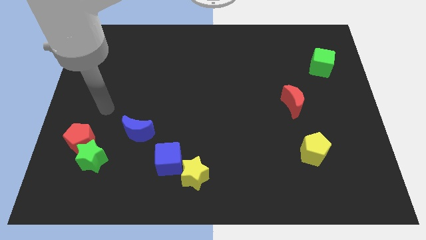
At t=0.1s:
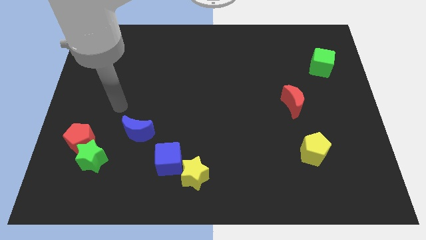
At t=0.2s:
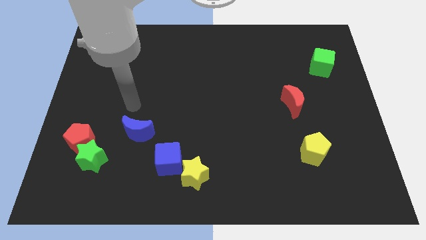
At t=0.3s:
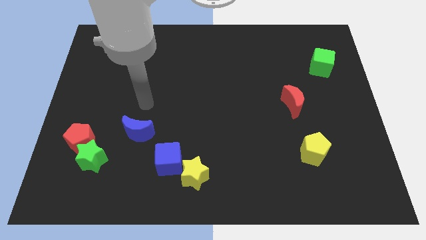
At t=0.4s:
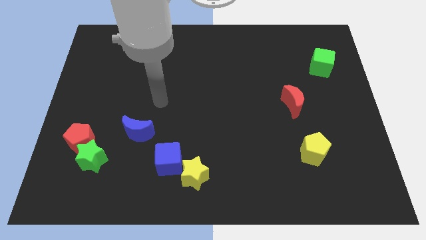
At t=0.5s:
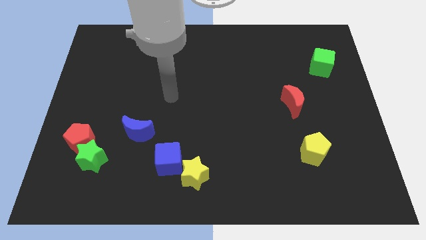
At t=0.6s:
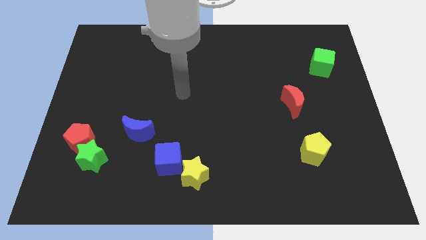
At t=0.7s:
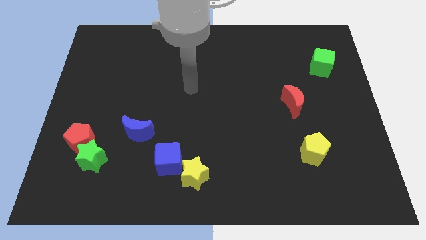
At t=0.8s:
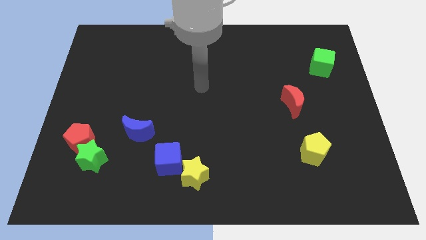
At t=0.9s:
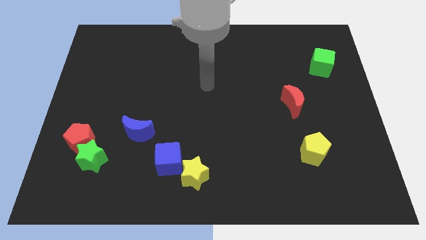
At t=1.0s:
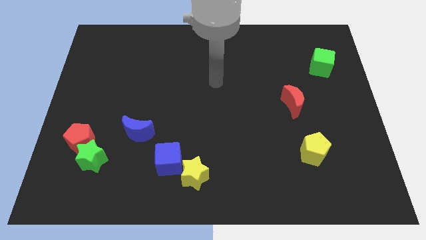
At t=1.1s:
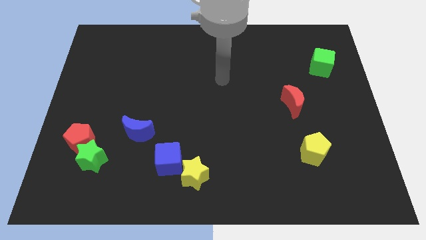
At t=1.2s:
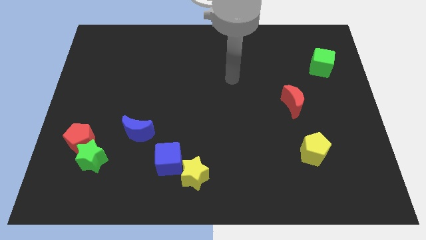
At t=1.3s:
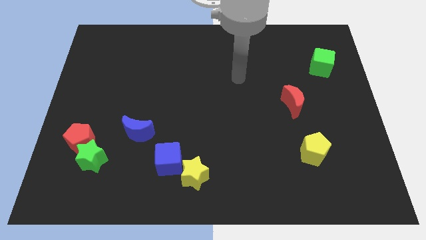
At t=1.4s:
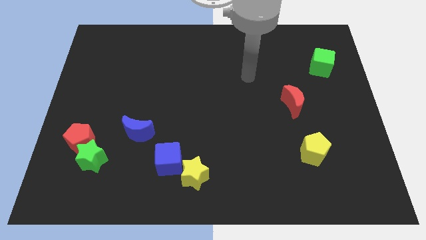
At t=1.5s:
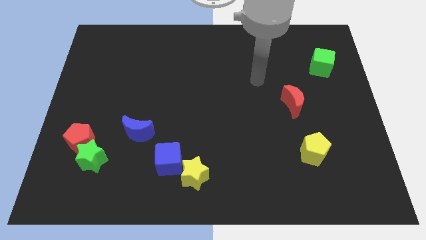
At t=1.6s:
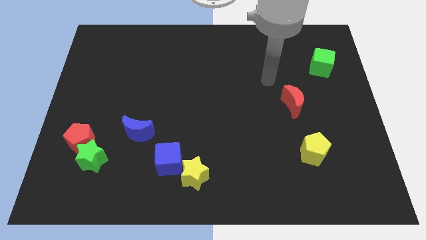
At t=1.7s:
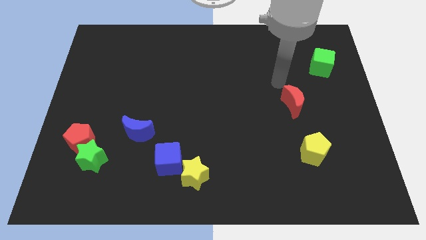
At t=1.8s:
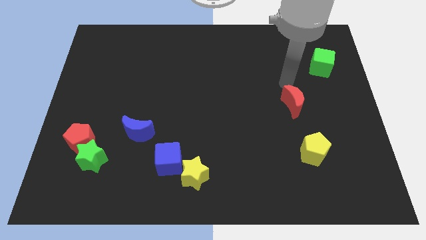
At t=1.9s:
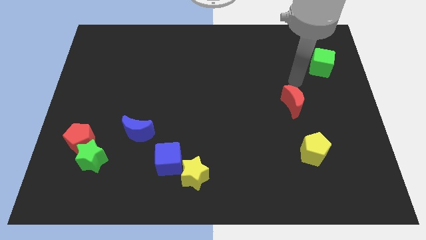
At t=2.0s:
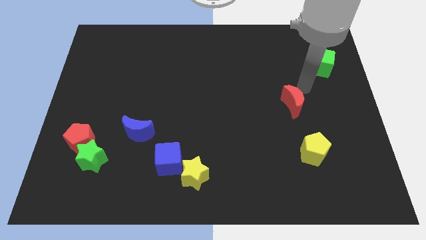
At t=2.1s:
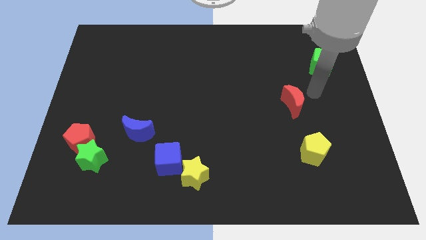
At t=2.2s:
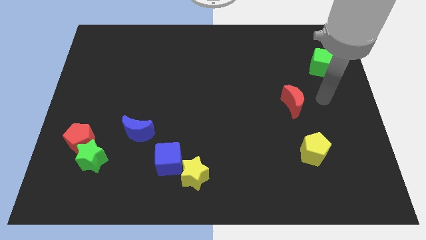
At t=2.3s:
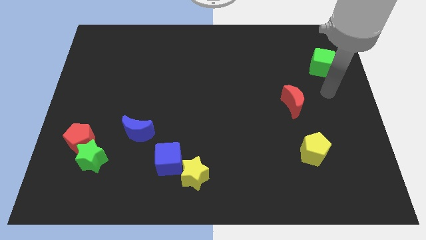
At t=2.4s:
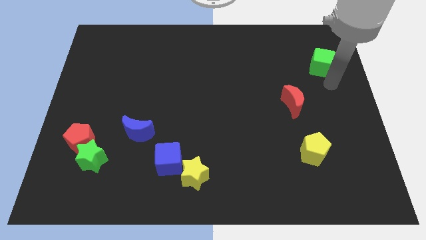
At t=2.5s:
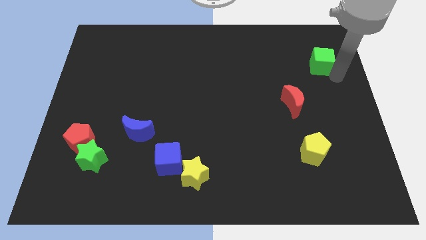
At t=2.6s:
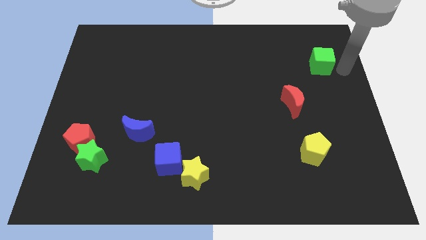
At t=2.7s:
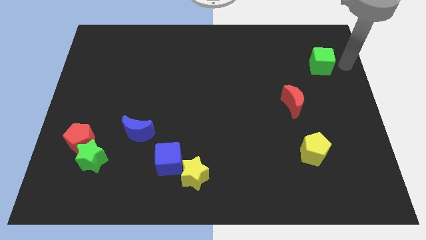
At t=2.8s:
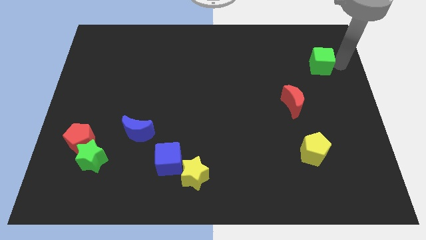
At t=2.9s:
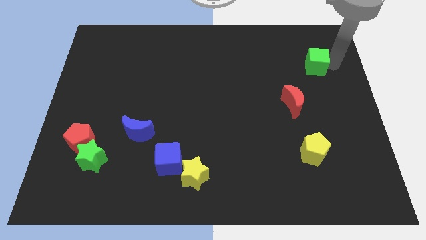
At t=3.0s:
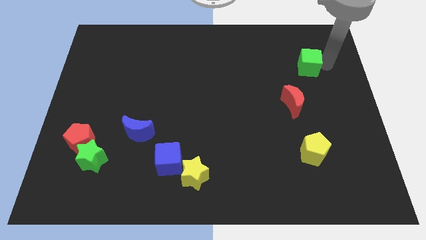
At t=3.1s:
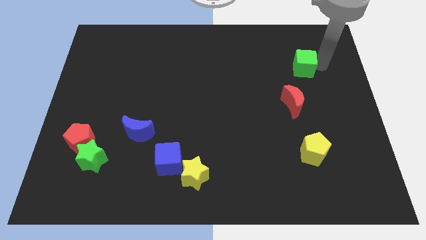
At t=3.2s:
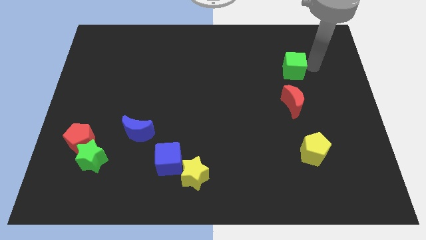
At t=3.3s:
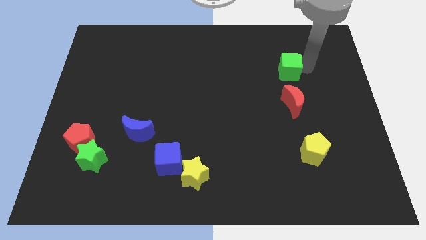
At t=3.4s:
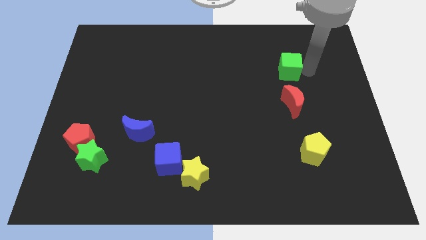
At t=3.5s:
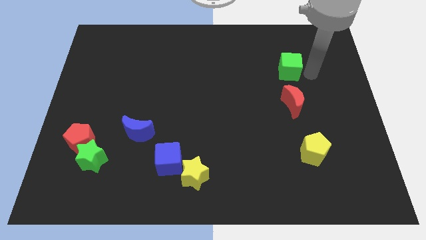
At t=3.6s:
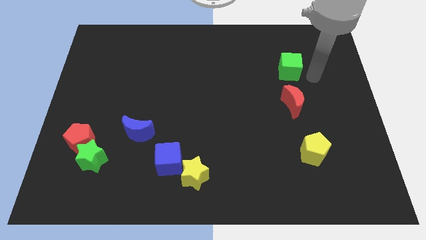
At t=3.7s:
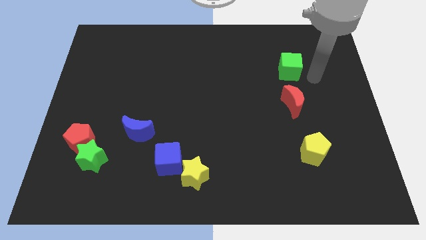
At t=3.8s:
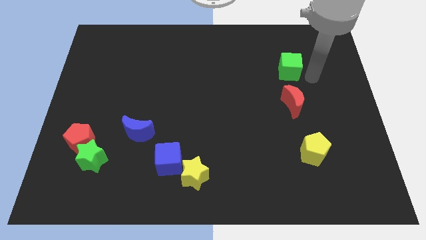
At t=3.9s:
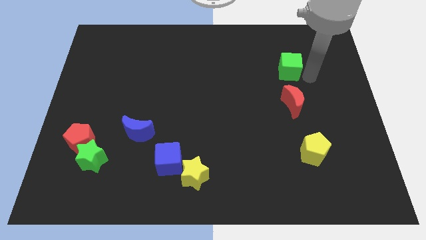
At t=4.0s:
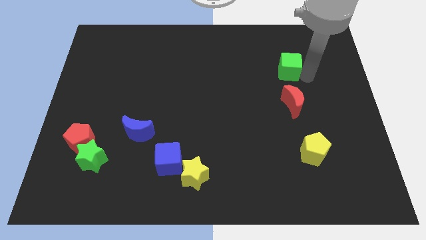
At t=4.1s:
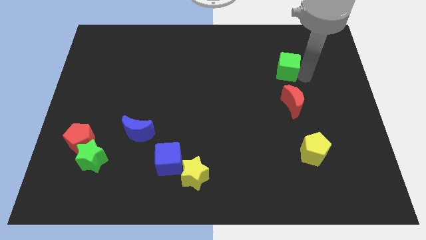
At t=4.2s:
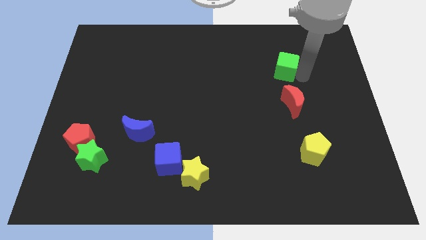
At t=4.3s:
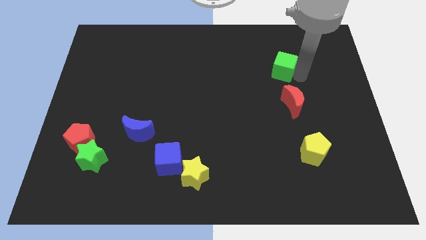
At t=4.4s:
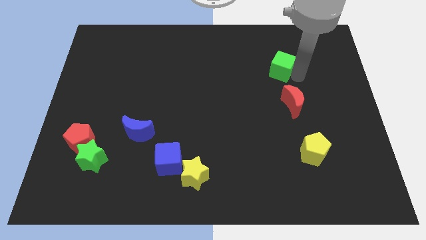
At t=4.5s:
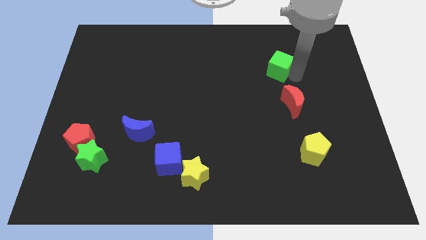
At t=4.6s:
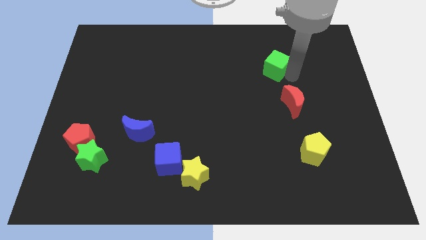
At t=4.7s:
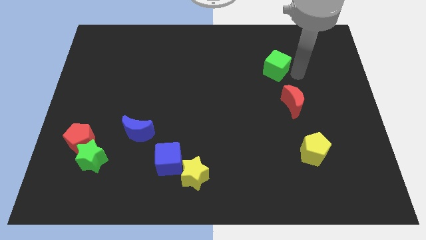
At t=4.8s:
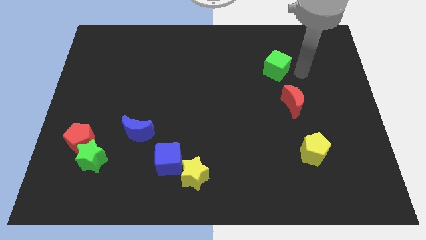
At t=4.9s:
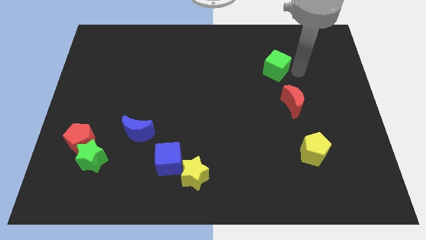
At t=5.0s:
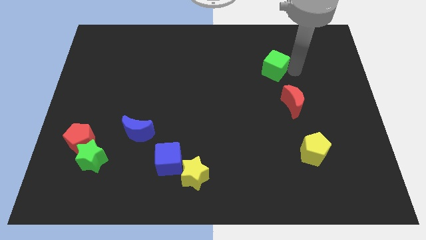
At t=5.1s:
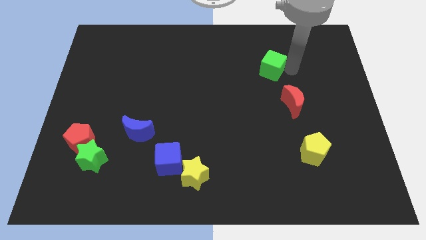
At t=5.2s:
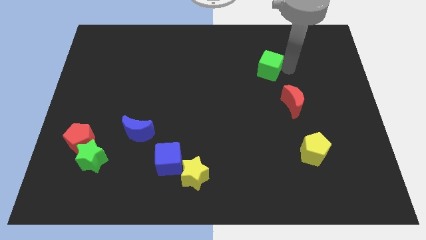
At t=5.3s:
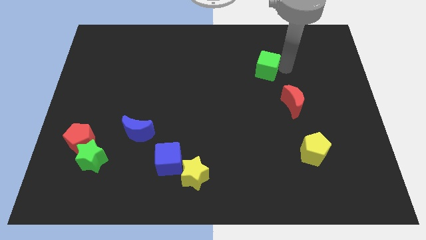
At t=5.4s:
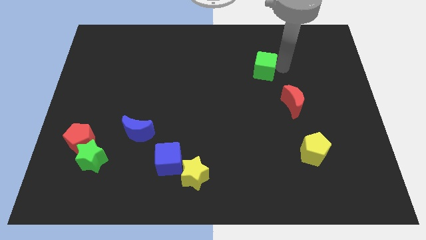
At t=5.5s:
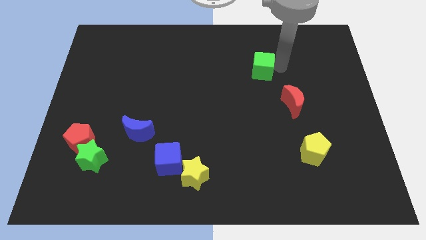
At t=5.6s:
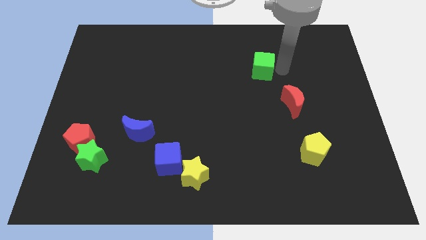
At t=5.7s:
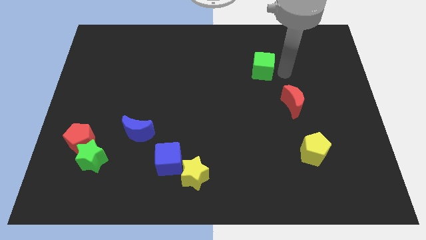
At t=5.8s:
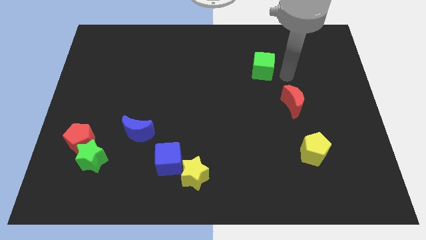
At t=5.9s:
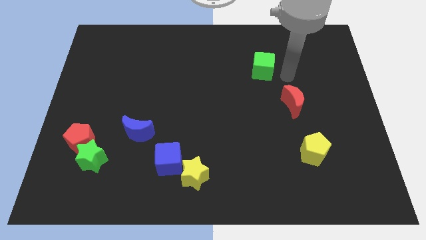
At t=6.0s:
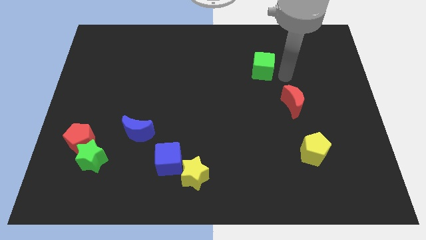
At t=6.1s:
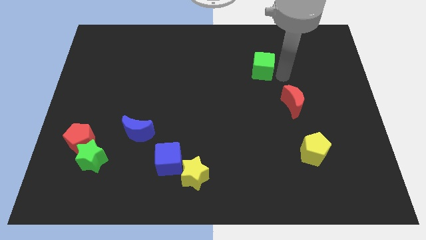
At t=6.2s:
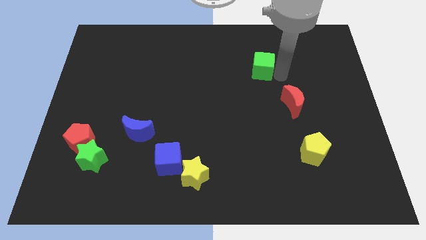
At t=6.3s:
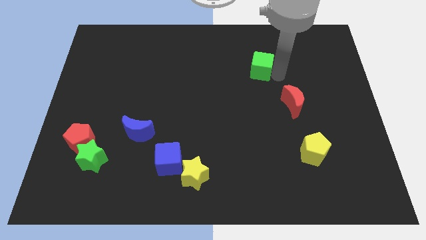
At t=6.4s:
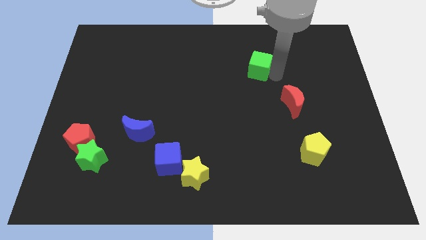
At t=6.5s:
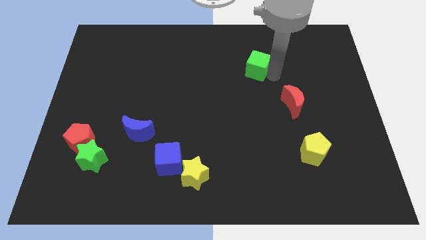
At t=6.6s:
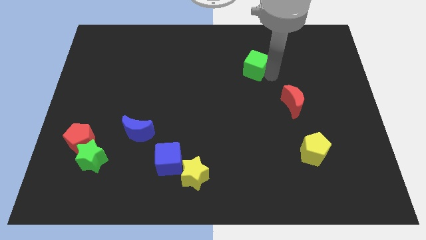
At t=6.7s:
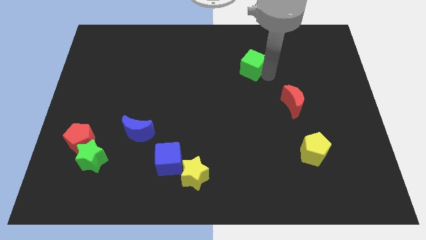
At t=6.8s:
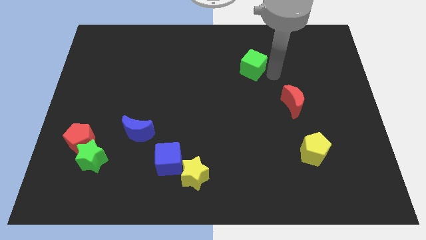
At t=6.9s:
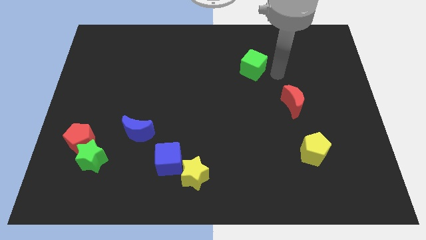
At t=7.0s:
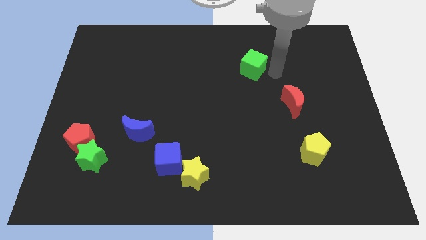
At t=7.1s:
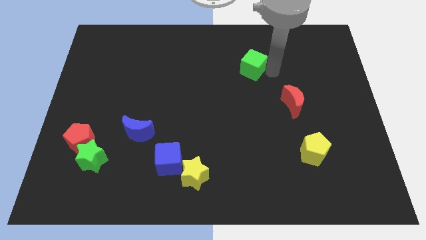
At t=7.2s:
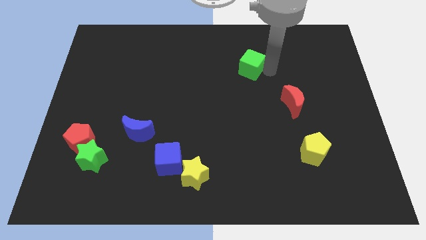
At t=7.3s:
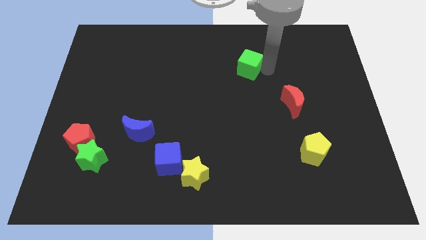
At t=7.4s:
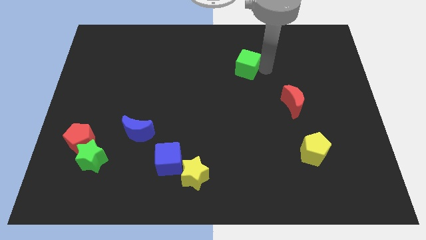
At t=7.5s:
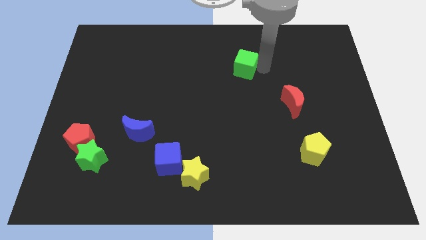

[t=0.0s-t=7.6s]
slide the green cube to the left

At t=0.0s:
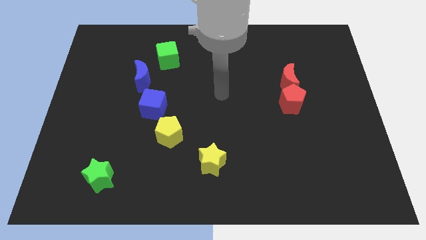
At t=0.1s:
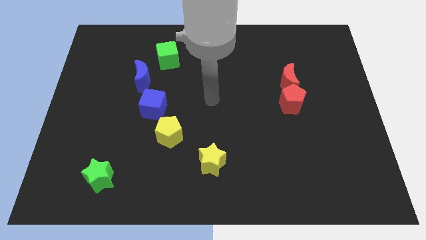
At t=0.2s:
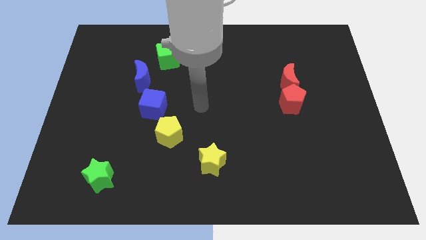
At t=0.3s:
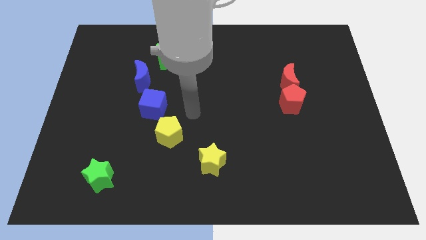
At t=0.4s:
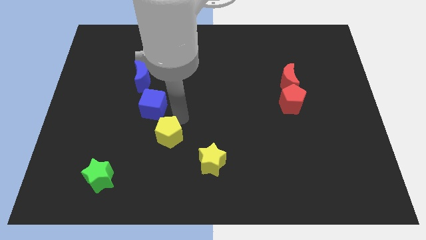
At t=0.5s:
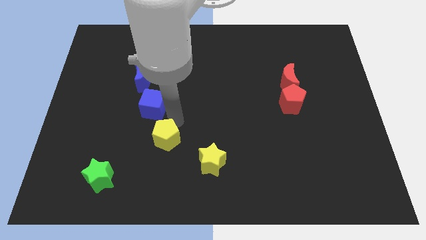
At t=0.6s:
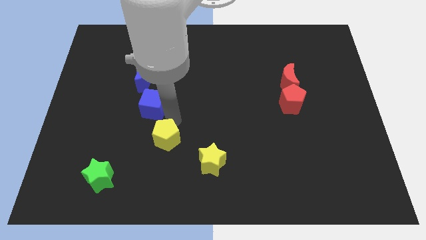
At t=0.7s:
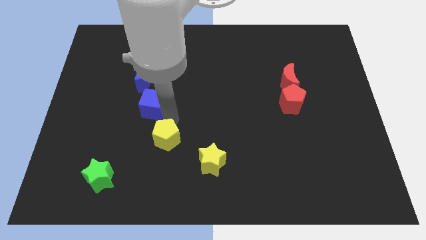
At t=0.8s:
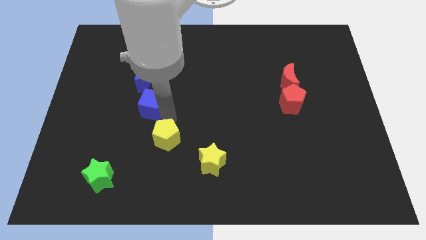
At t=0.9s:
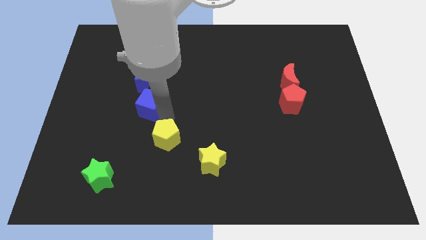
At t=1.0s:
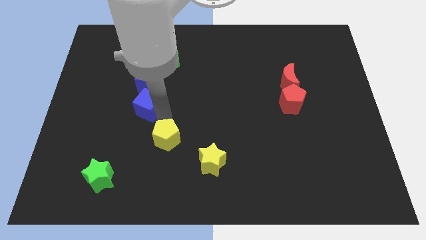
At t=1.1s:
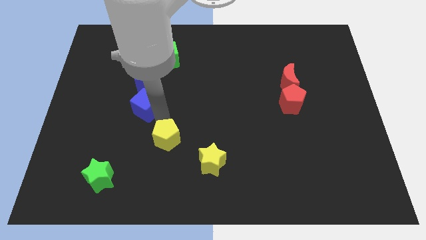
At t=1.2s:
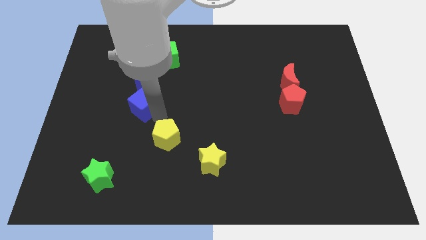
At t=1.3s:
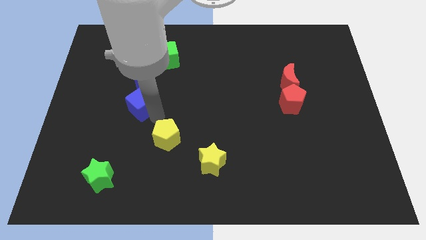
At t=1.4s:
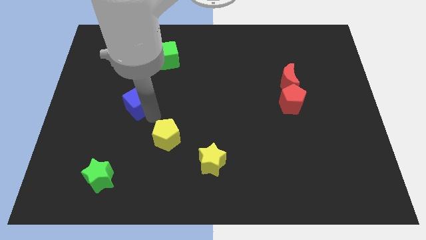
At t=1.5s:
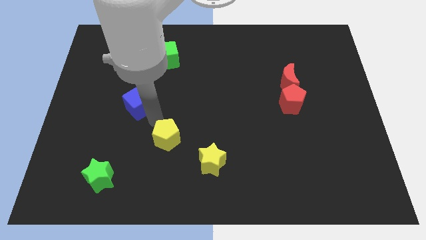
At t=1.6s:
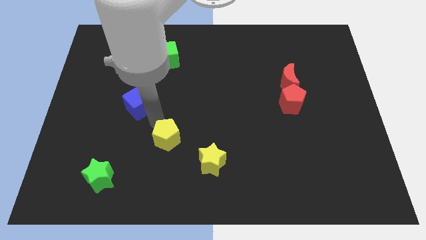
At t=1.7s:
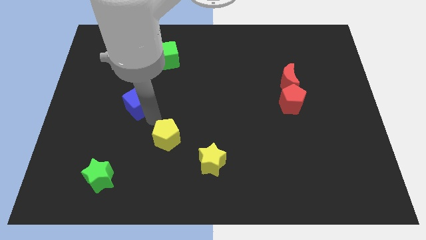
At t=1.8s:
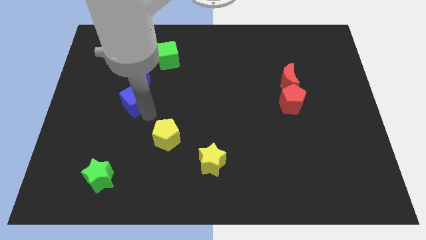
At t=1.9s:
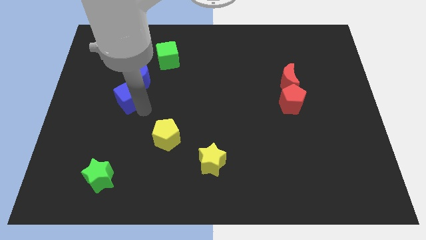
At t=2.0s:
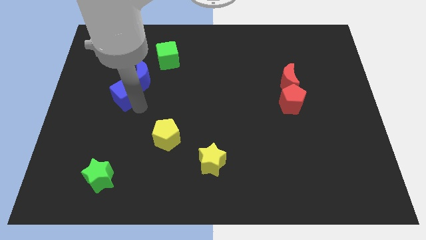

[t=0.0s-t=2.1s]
slide the blue cube a bit up and then to the left
